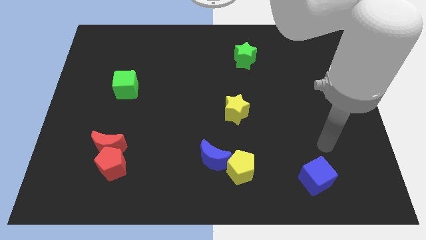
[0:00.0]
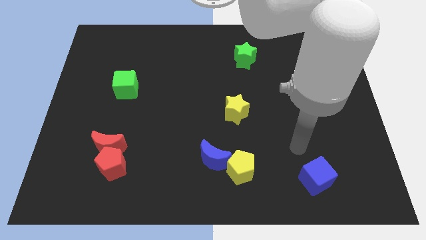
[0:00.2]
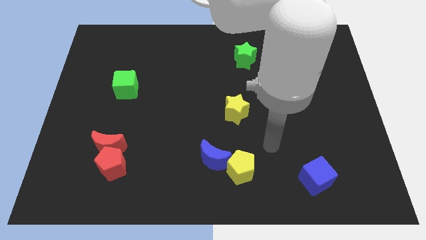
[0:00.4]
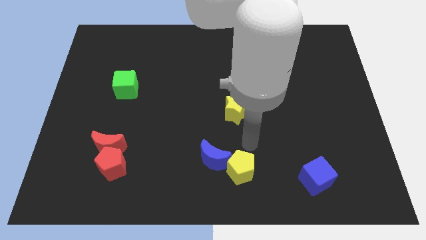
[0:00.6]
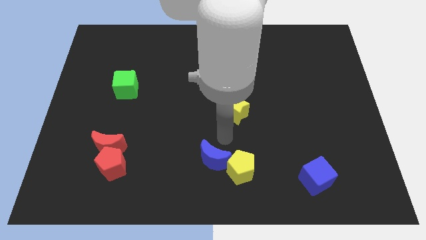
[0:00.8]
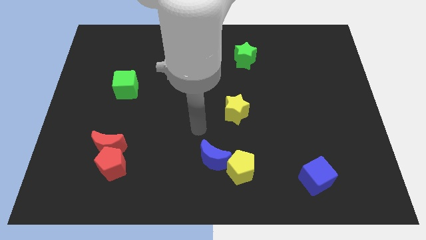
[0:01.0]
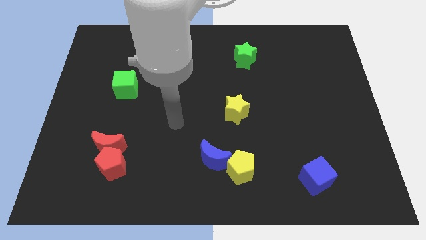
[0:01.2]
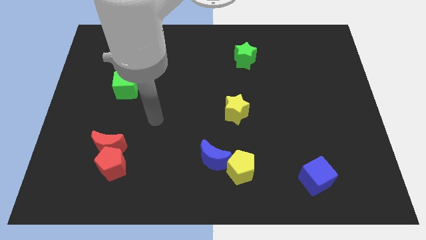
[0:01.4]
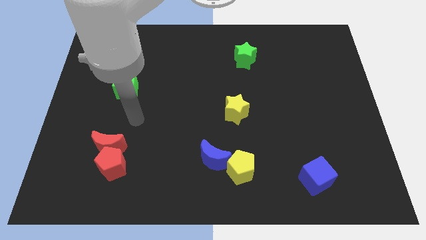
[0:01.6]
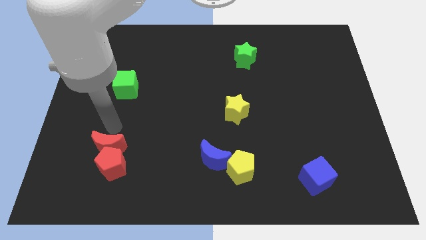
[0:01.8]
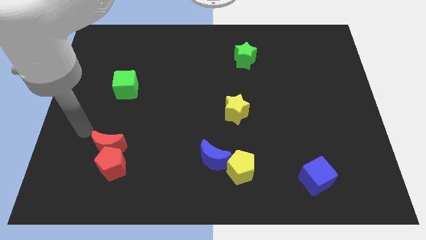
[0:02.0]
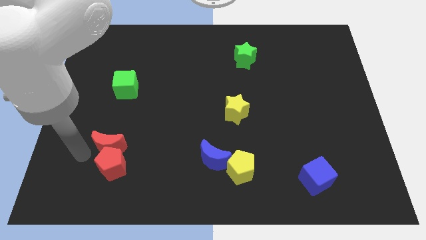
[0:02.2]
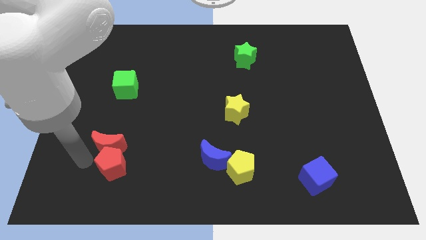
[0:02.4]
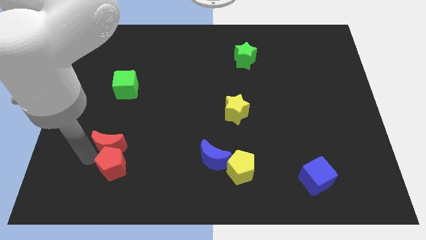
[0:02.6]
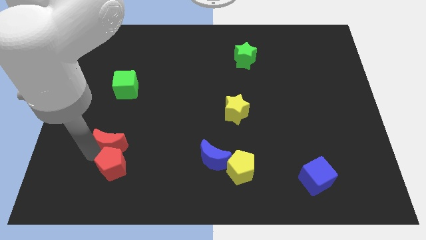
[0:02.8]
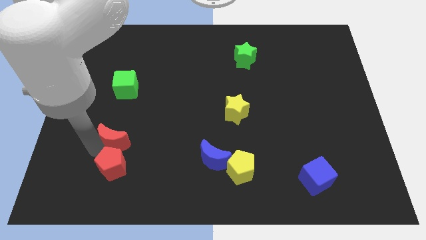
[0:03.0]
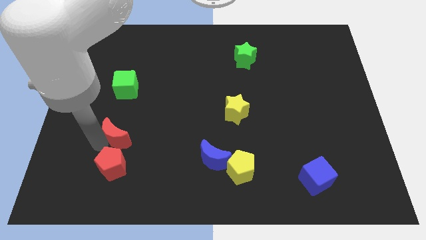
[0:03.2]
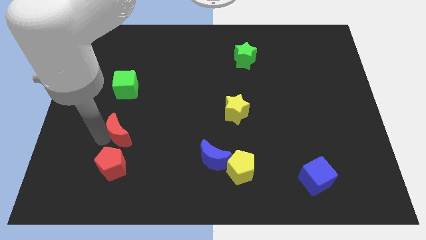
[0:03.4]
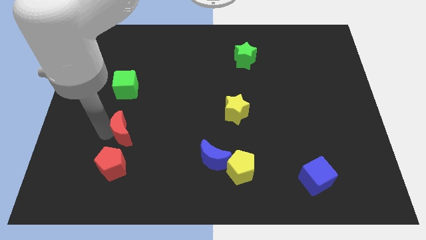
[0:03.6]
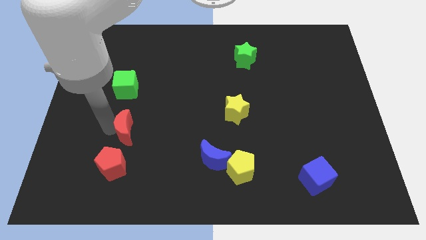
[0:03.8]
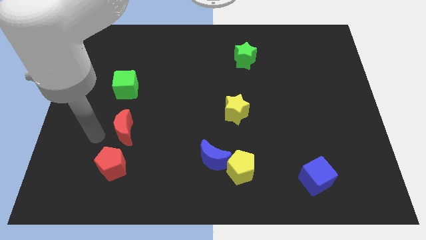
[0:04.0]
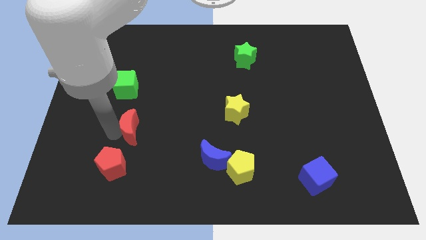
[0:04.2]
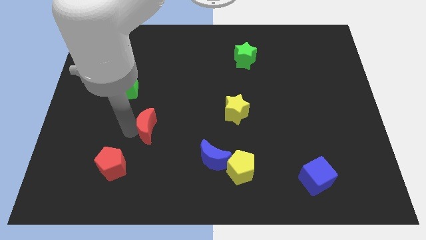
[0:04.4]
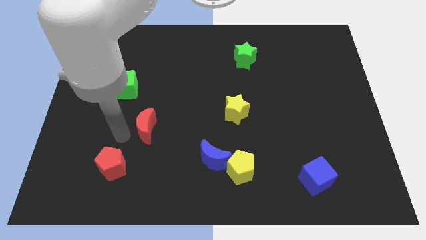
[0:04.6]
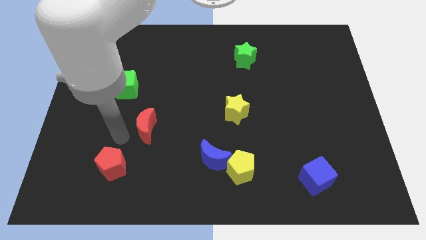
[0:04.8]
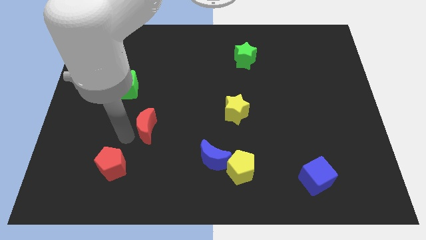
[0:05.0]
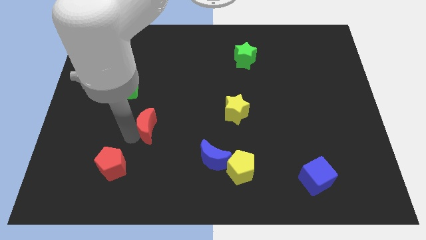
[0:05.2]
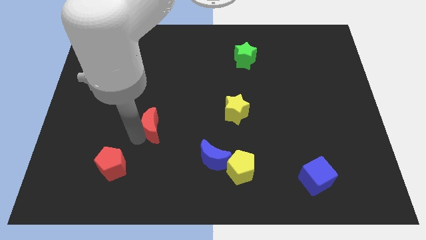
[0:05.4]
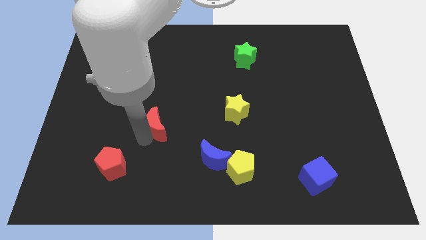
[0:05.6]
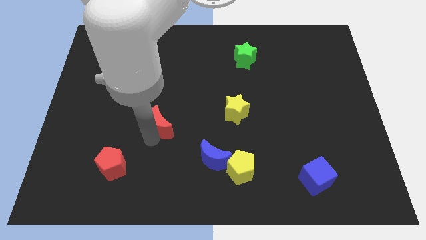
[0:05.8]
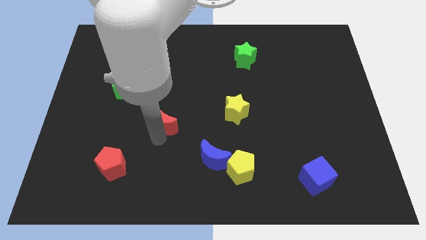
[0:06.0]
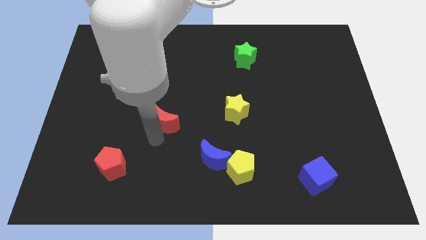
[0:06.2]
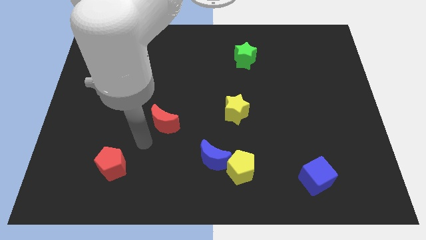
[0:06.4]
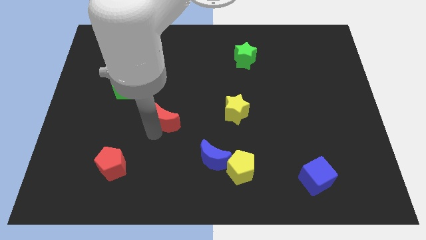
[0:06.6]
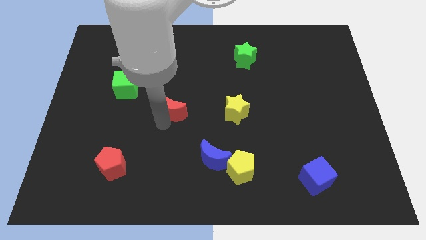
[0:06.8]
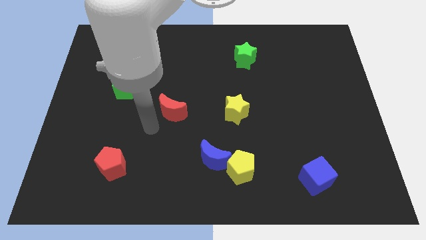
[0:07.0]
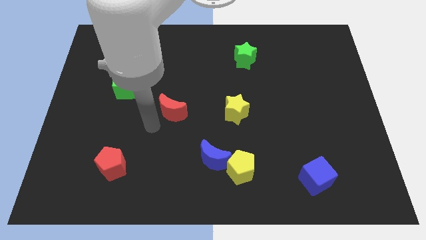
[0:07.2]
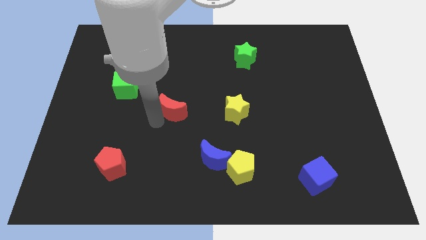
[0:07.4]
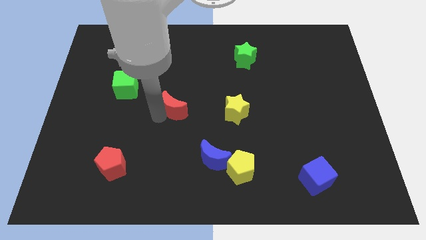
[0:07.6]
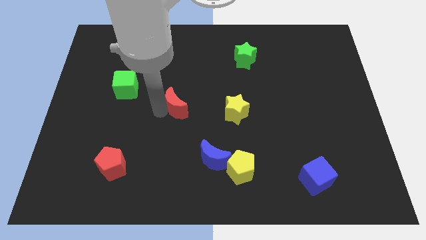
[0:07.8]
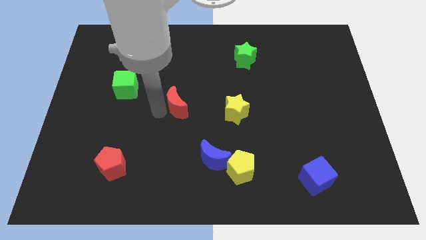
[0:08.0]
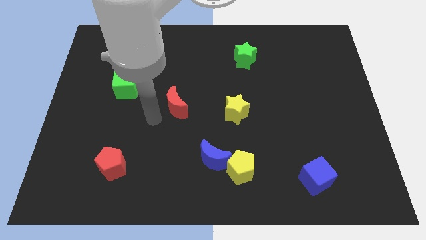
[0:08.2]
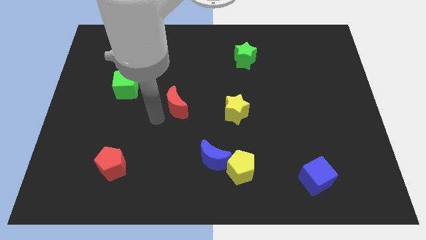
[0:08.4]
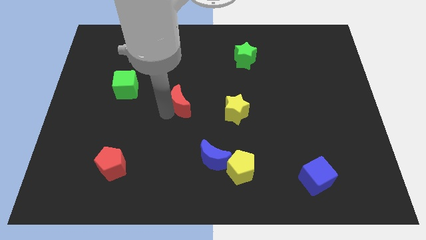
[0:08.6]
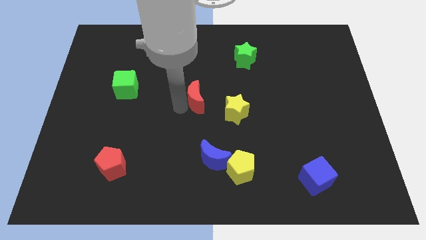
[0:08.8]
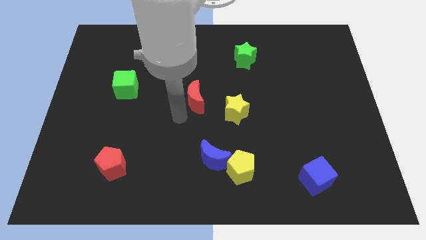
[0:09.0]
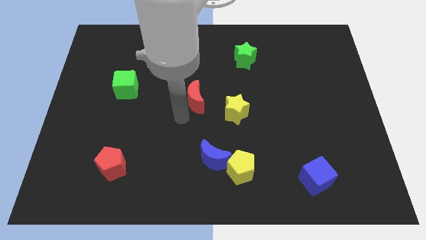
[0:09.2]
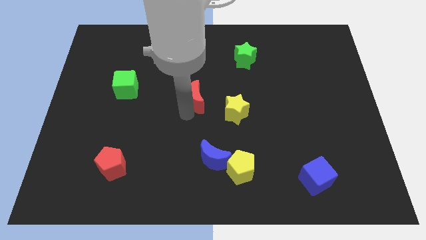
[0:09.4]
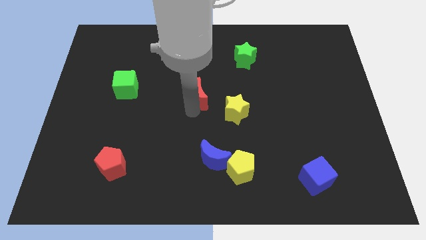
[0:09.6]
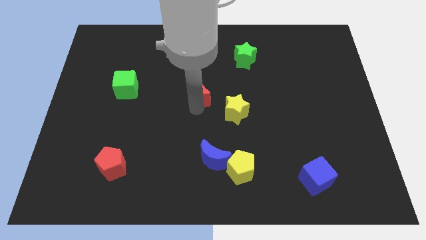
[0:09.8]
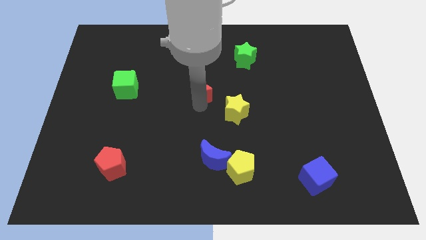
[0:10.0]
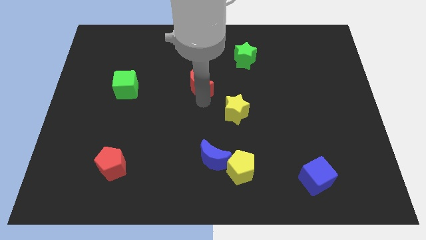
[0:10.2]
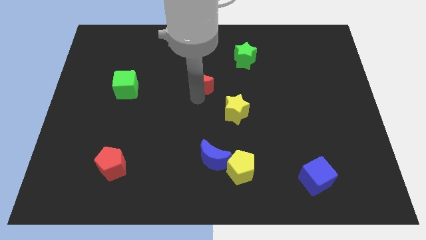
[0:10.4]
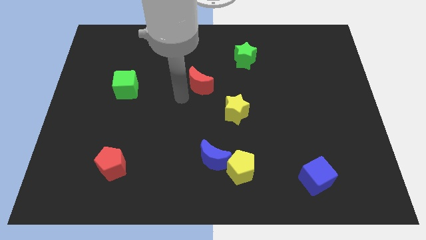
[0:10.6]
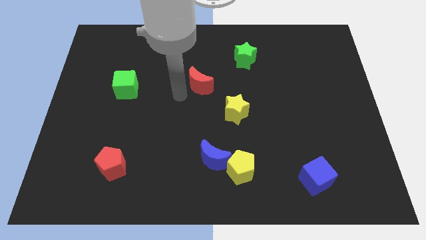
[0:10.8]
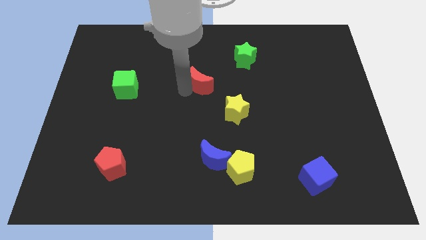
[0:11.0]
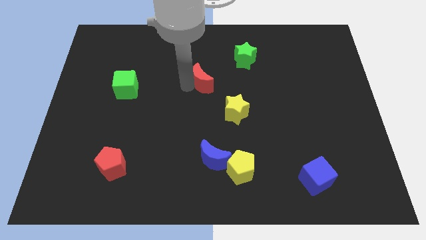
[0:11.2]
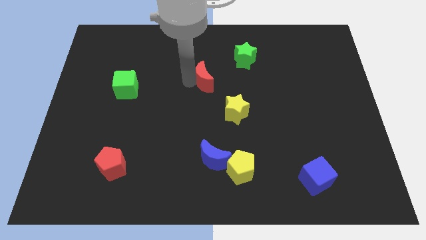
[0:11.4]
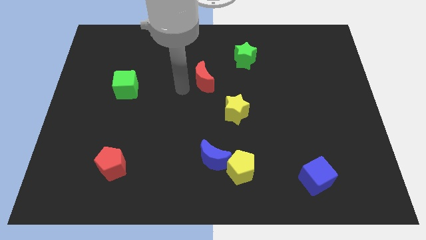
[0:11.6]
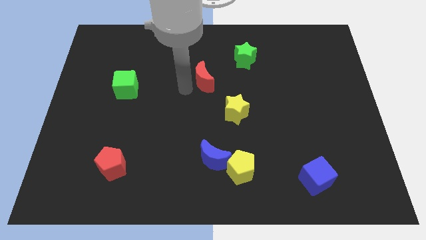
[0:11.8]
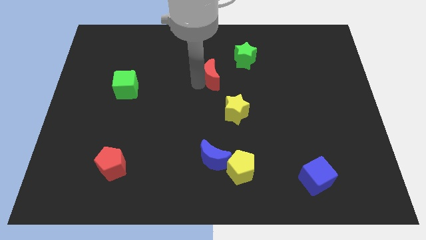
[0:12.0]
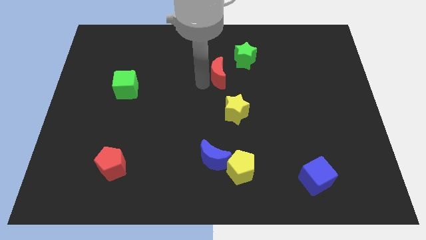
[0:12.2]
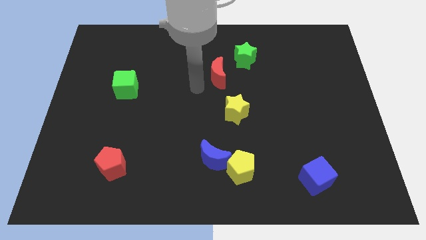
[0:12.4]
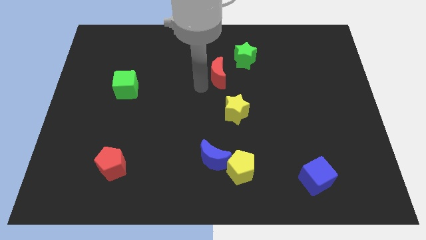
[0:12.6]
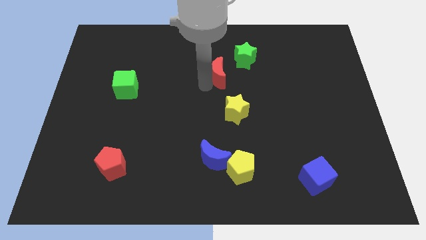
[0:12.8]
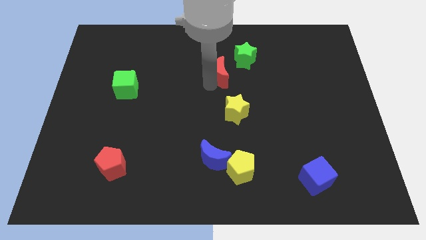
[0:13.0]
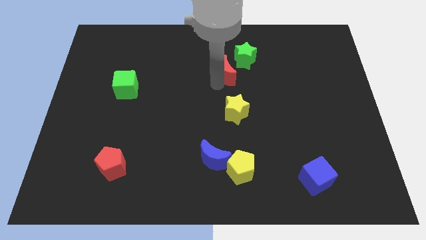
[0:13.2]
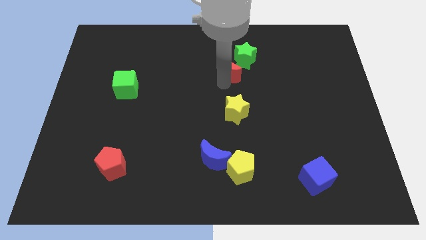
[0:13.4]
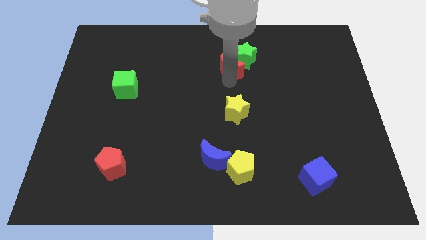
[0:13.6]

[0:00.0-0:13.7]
push the red moon to the green star

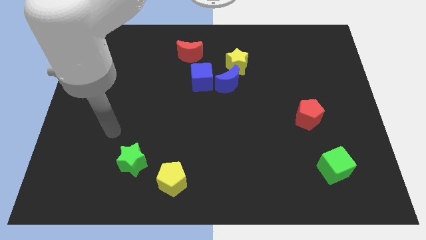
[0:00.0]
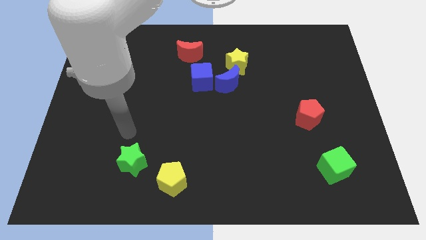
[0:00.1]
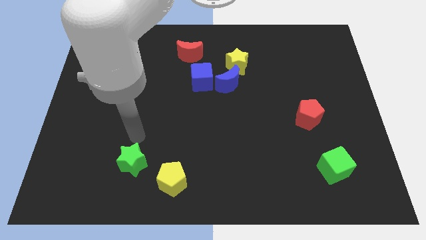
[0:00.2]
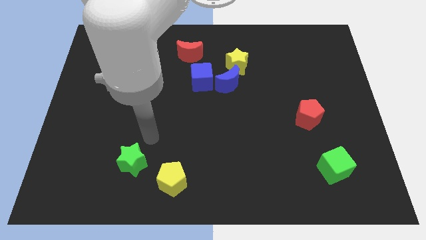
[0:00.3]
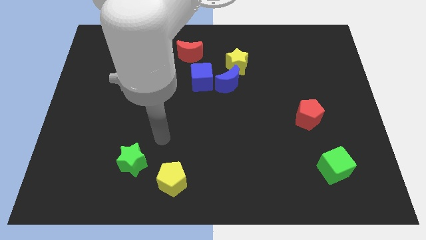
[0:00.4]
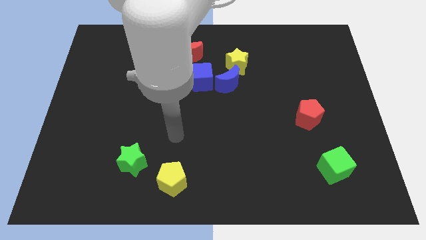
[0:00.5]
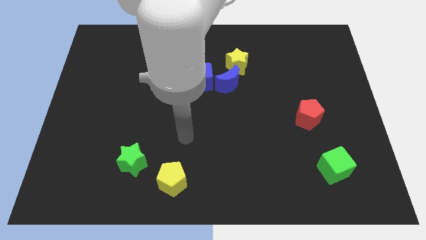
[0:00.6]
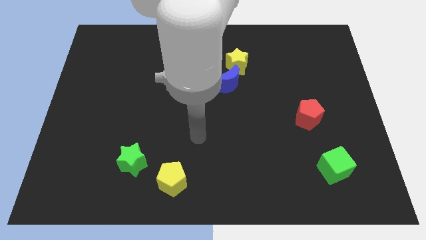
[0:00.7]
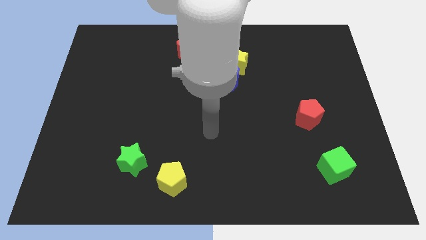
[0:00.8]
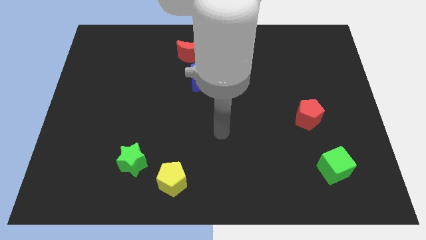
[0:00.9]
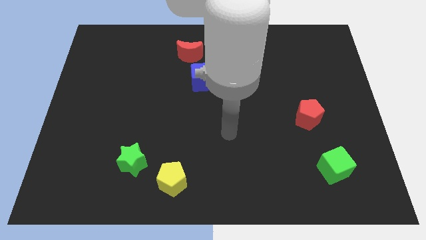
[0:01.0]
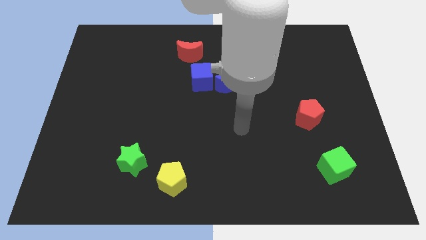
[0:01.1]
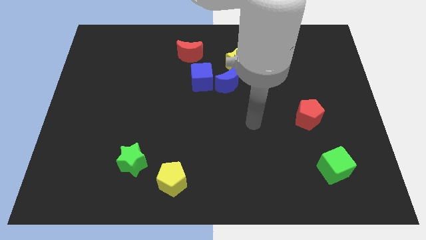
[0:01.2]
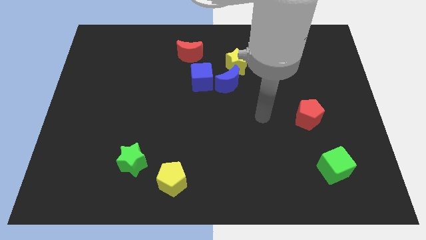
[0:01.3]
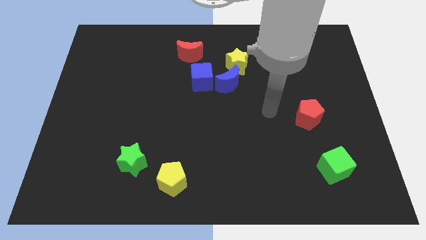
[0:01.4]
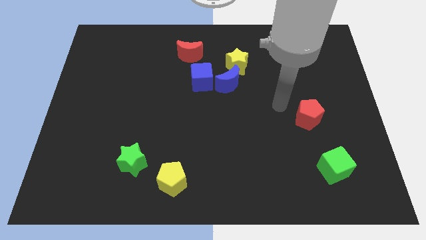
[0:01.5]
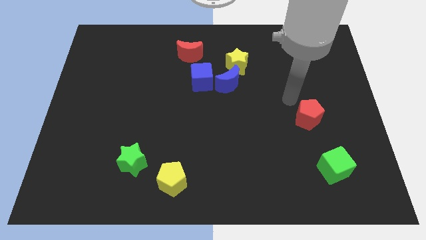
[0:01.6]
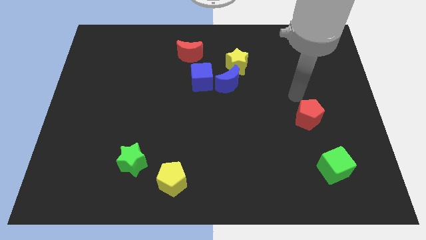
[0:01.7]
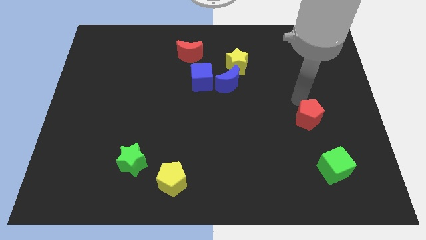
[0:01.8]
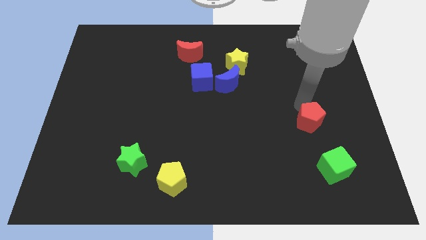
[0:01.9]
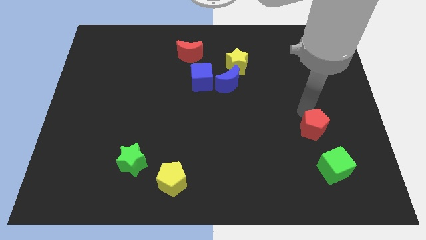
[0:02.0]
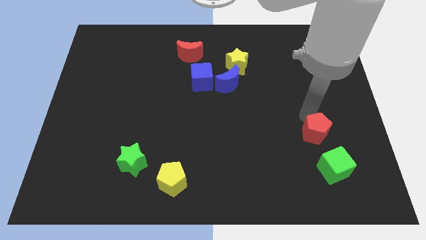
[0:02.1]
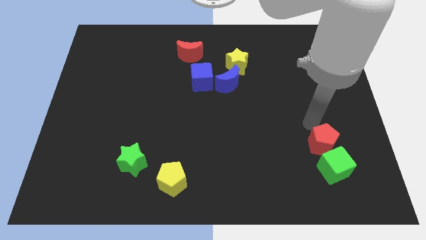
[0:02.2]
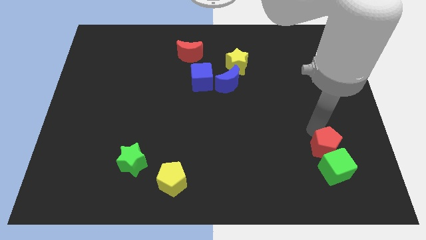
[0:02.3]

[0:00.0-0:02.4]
put the red pentagon towards the green cube
